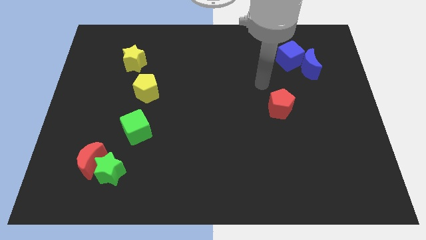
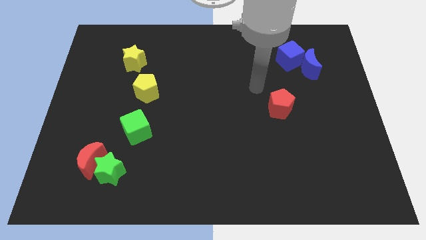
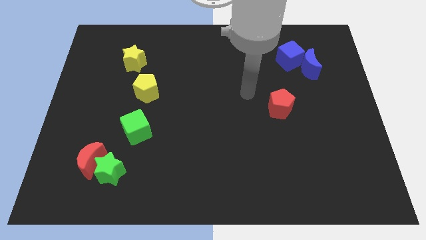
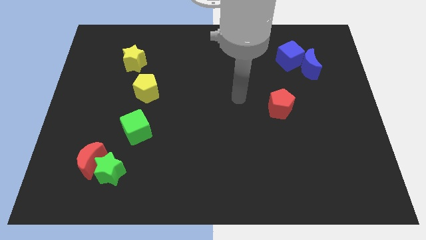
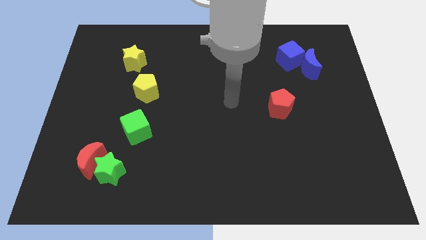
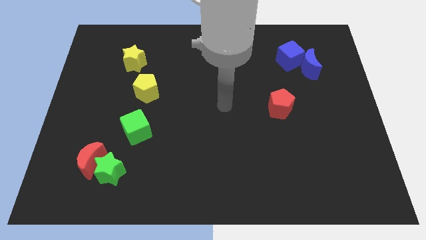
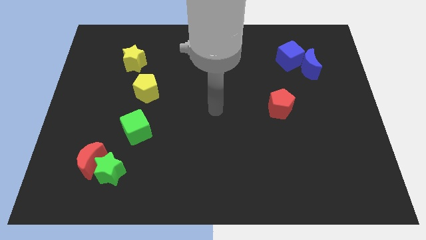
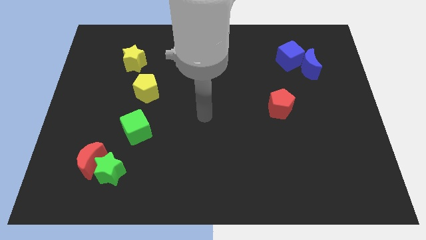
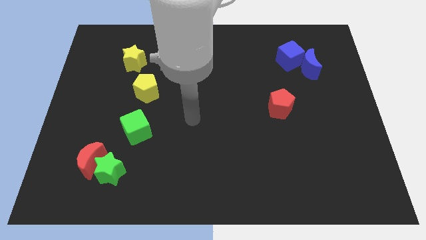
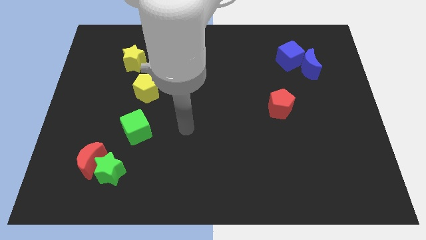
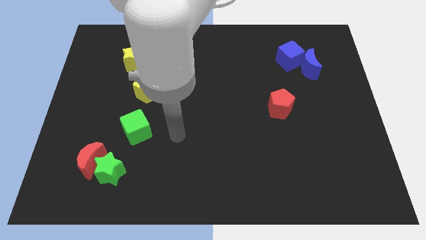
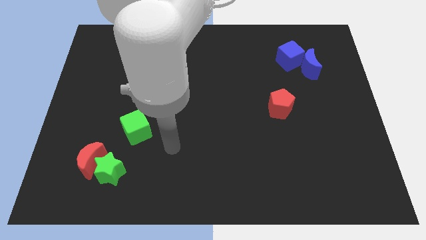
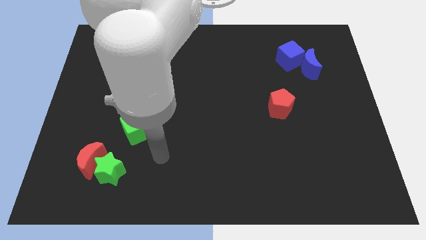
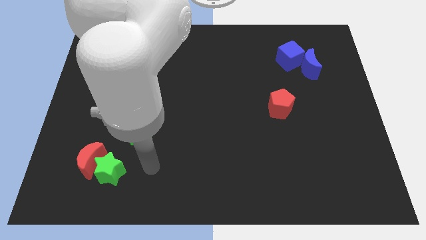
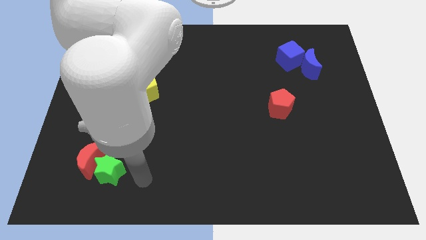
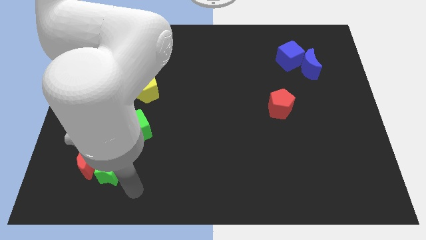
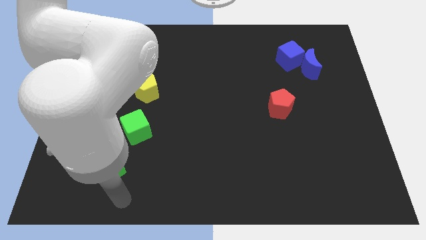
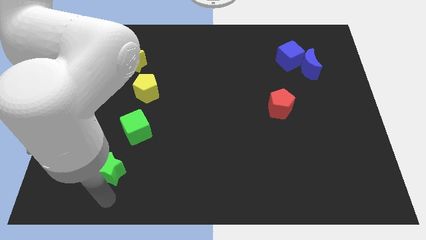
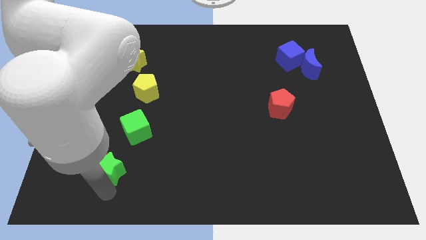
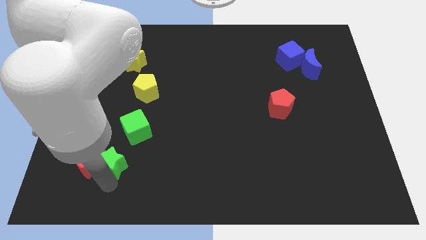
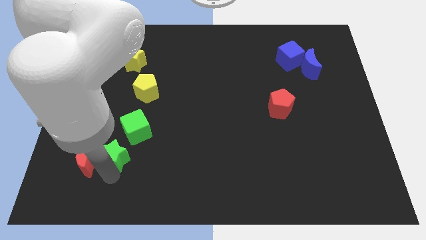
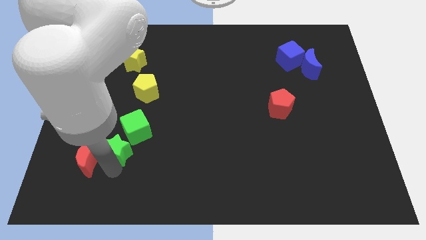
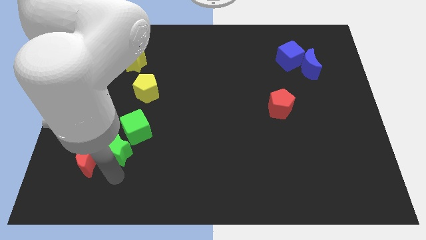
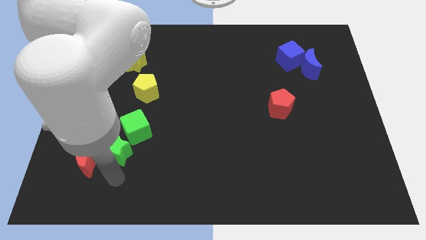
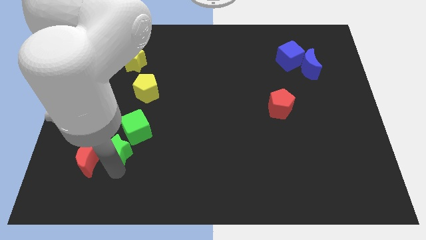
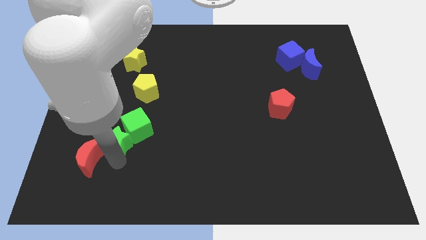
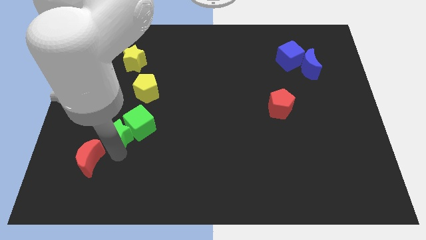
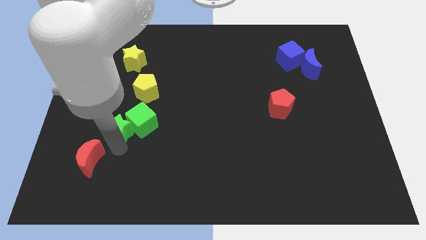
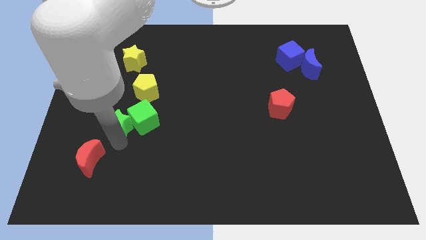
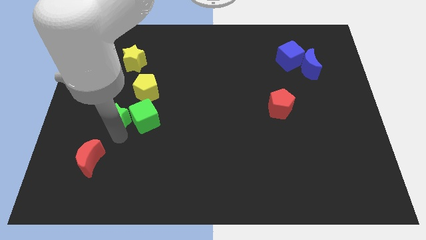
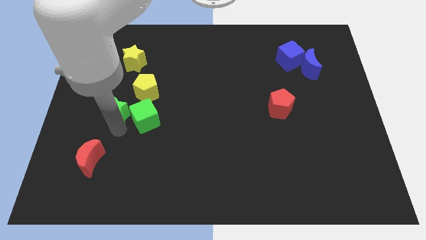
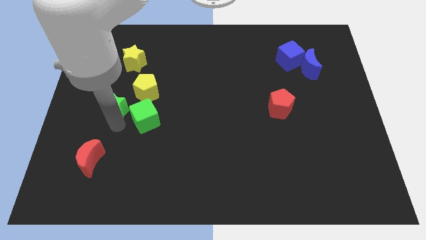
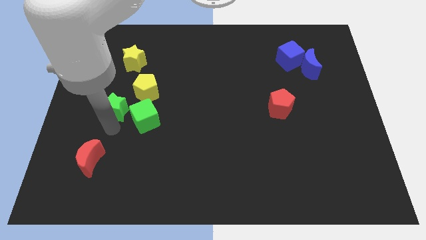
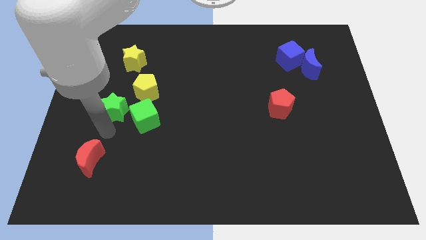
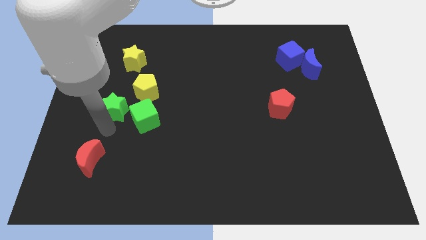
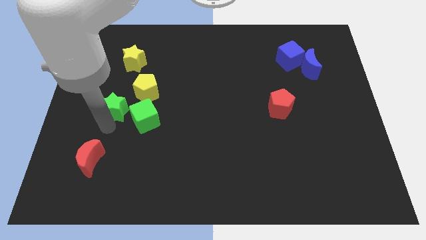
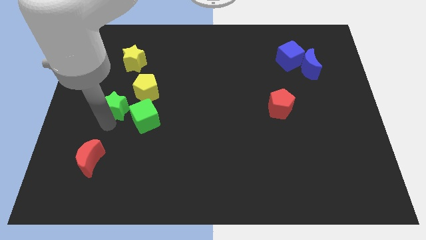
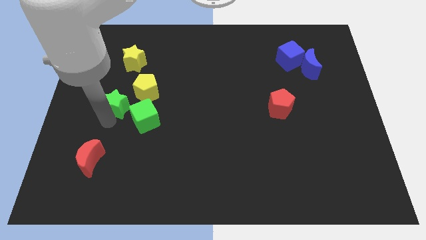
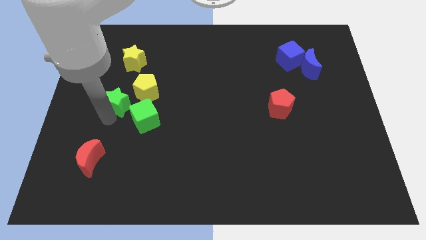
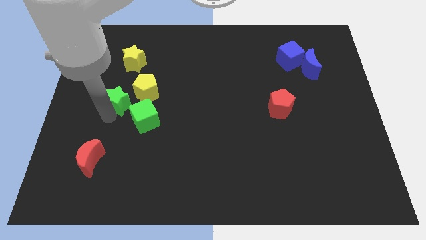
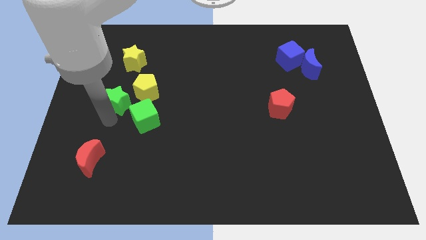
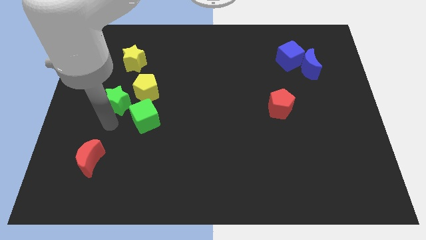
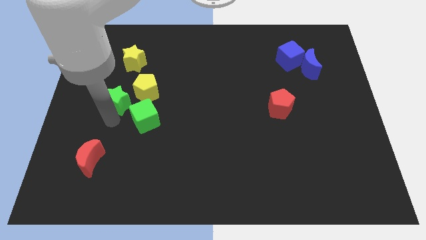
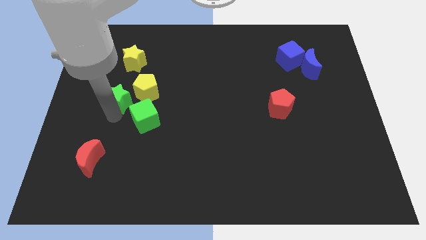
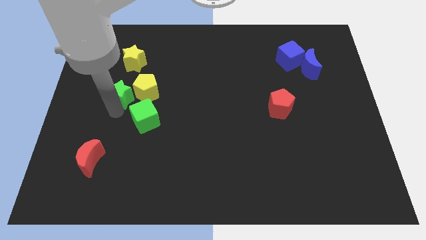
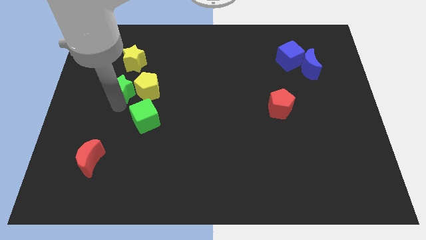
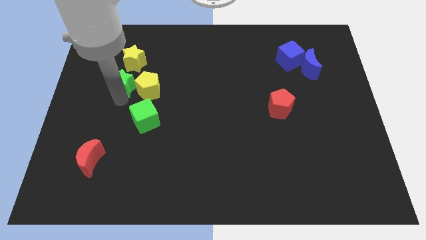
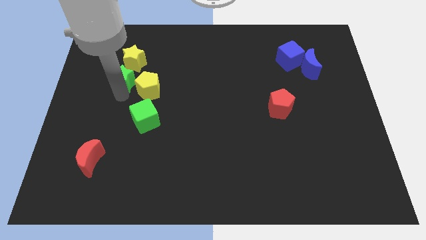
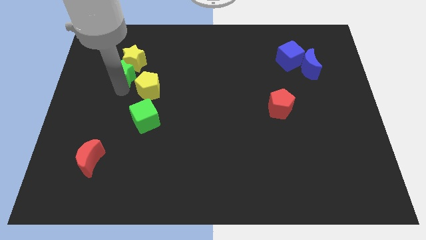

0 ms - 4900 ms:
slide the green star to the yellow star

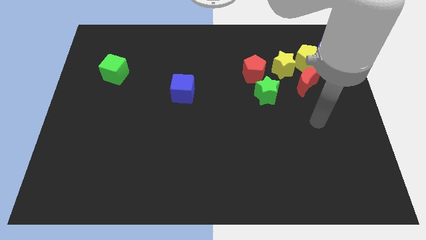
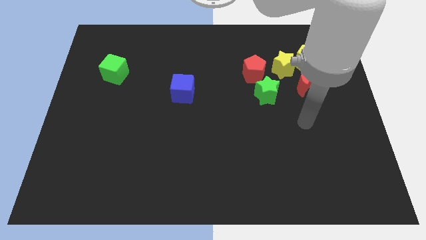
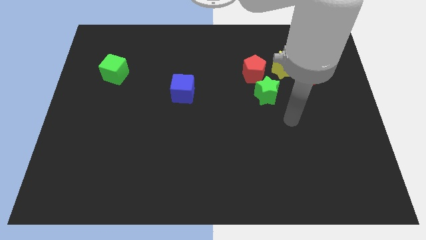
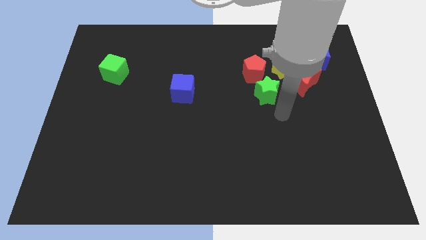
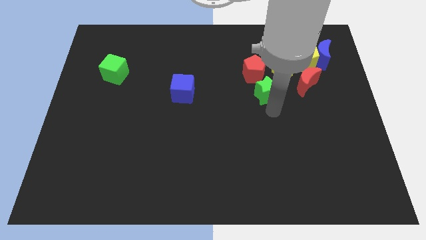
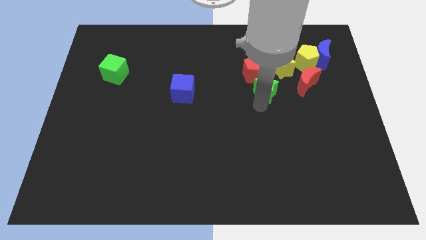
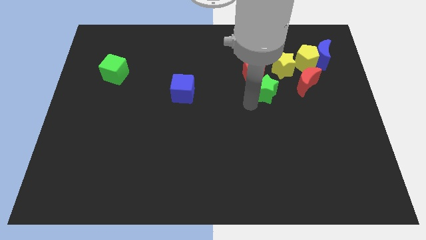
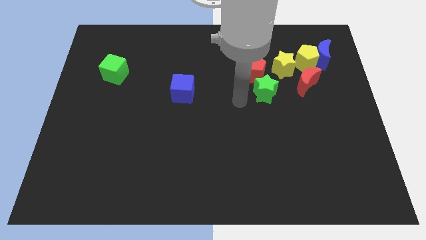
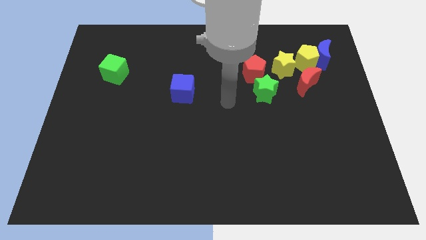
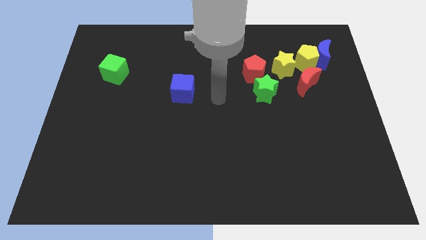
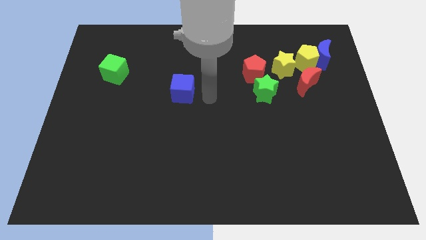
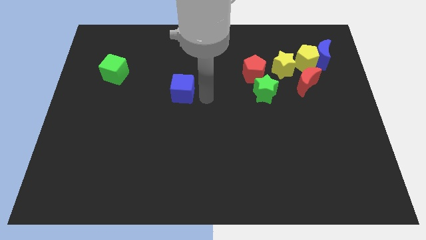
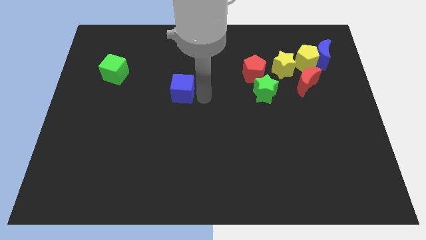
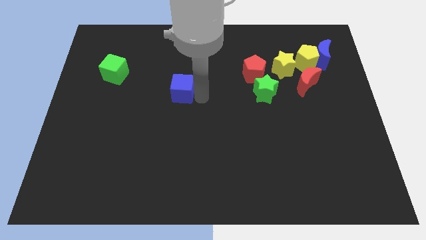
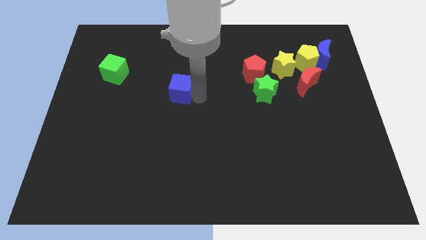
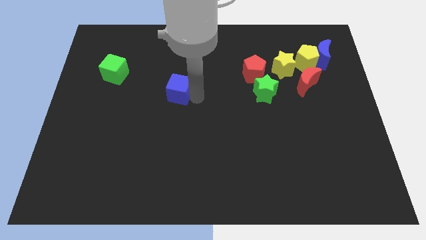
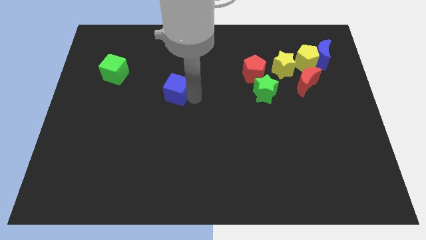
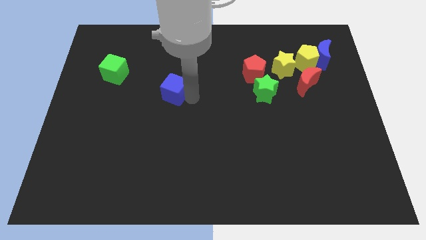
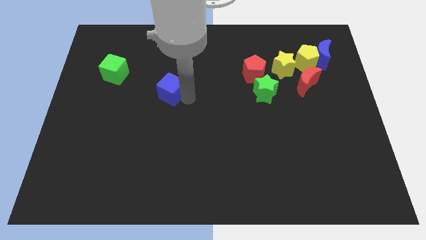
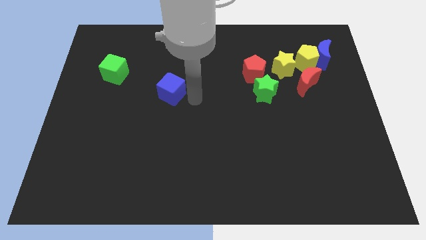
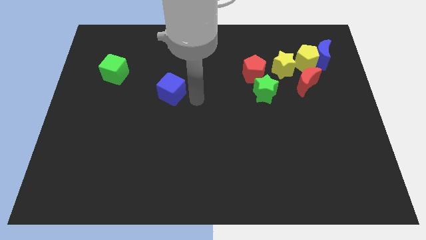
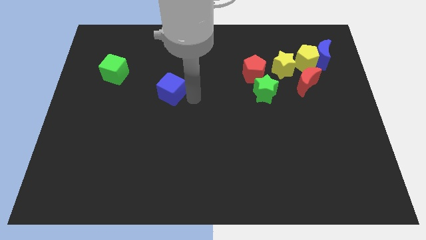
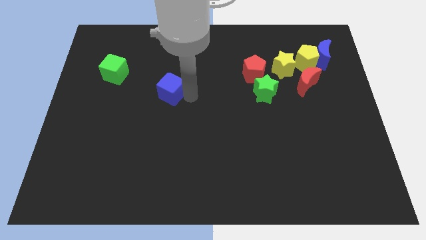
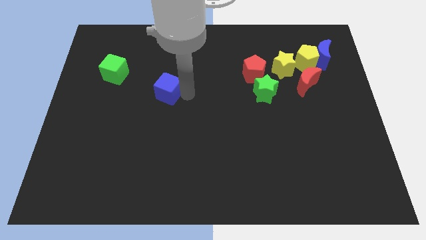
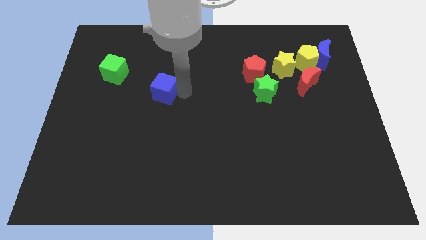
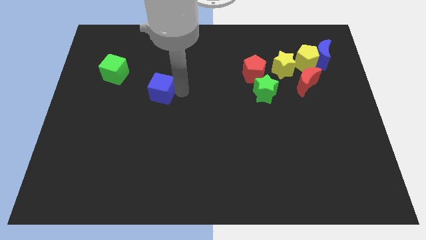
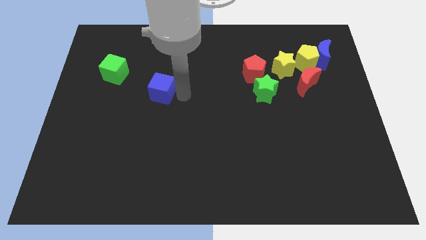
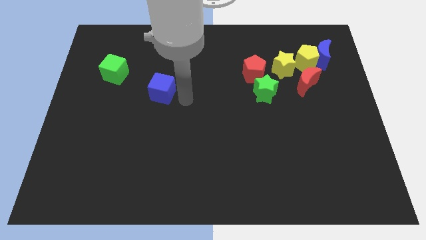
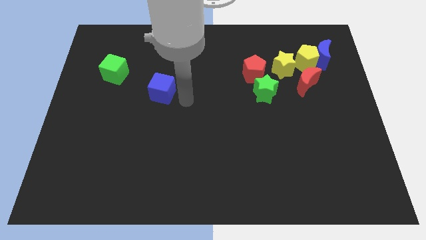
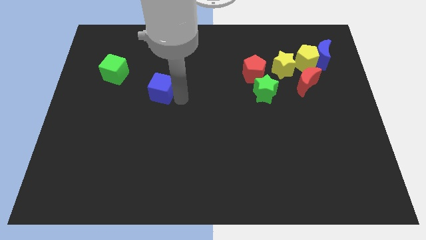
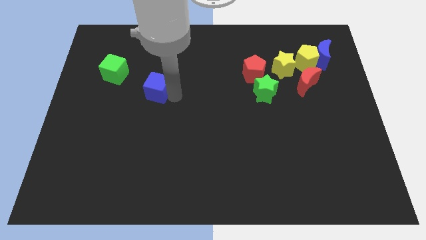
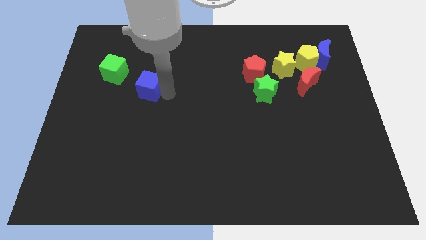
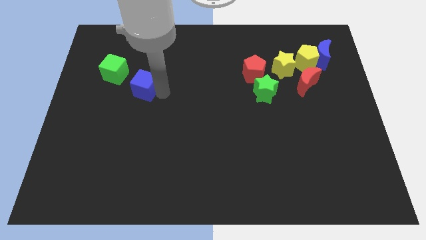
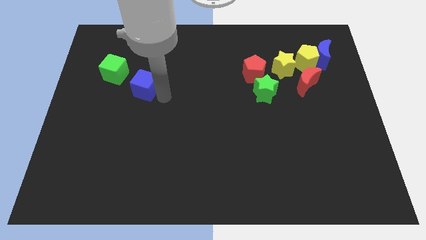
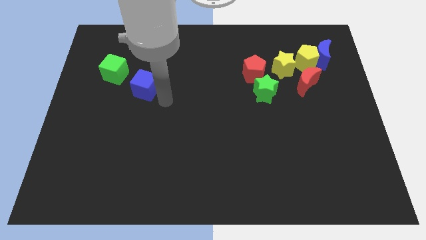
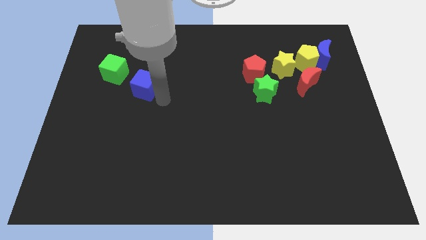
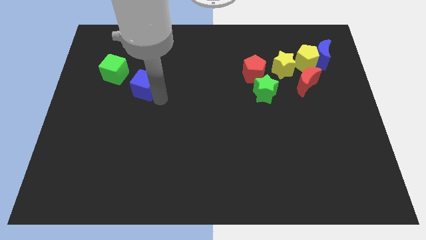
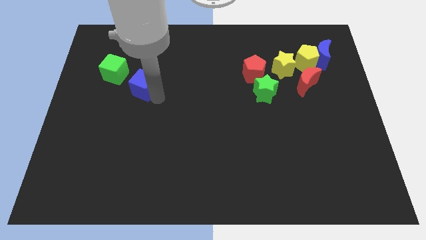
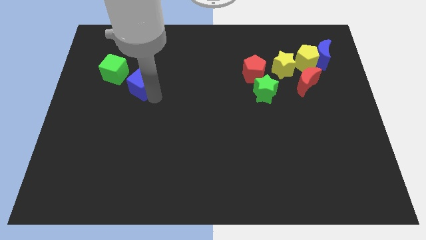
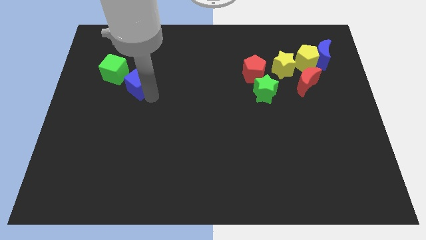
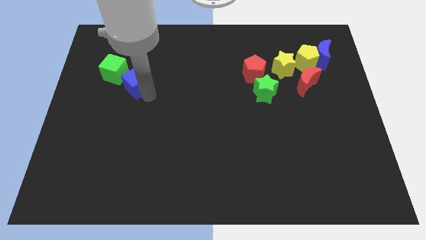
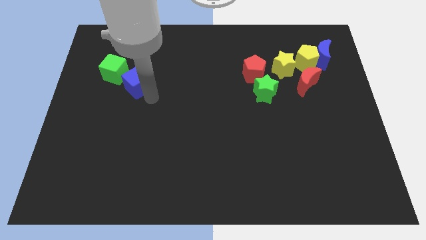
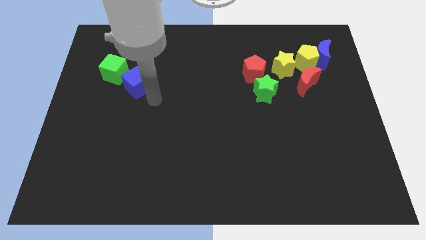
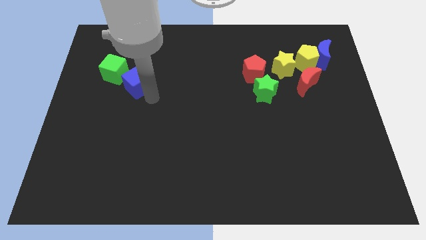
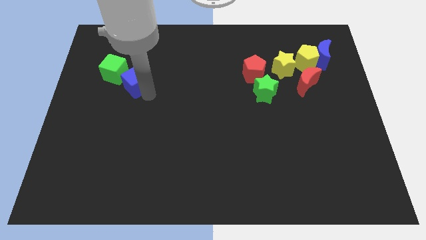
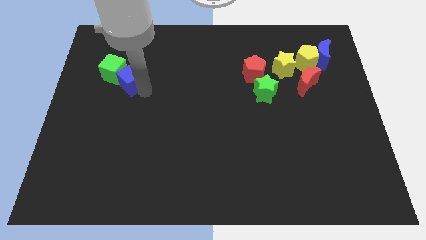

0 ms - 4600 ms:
slide the blue cube next to the green cube
